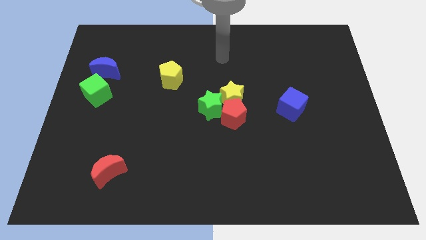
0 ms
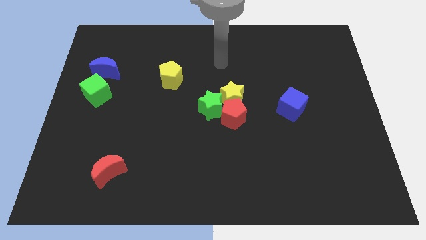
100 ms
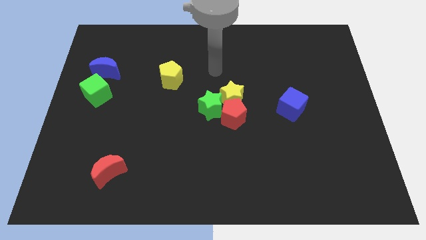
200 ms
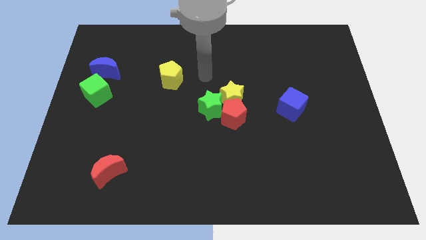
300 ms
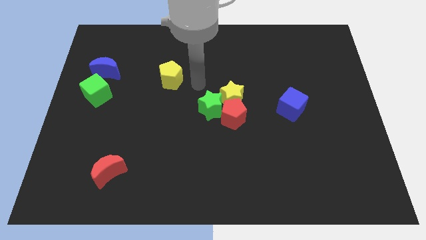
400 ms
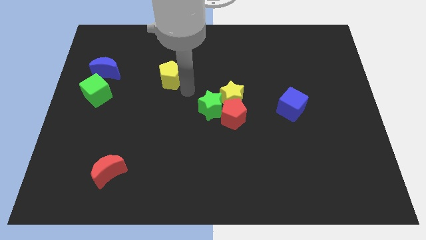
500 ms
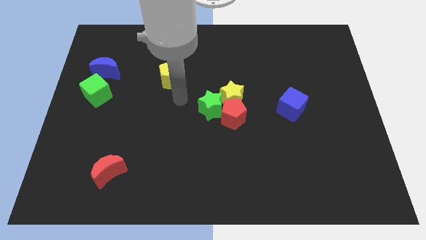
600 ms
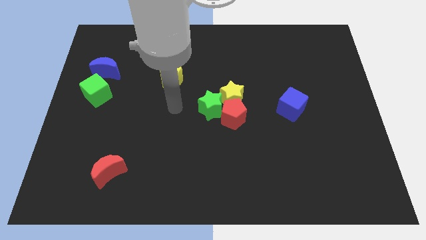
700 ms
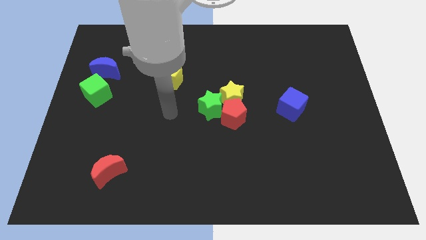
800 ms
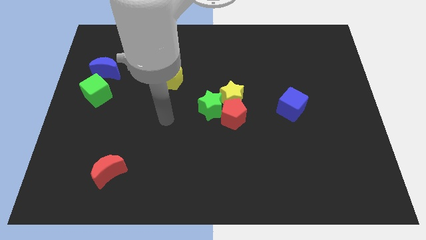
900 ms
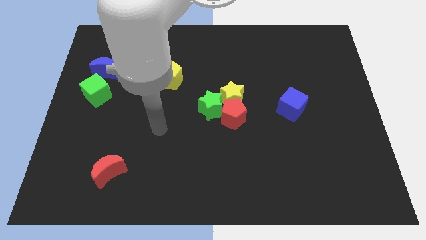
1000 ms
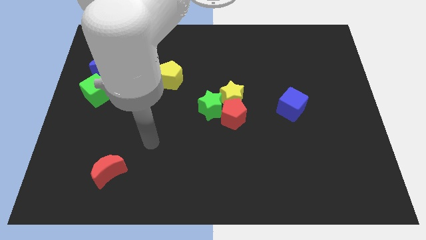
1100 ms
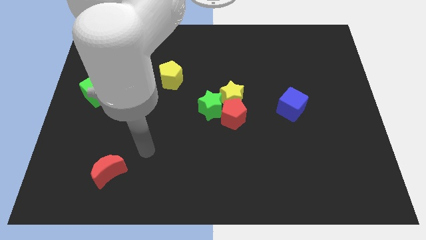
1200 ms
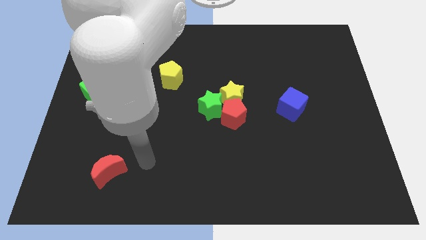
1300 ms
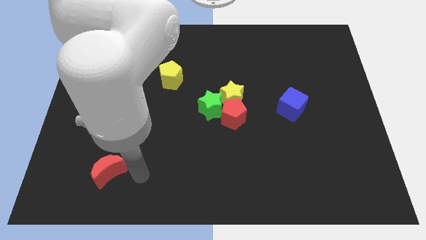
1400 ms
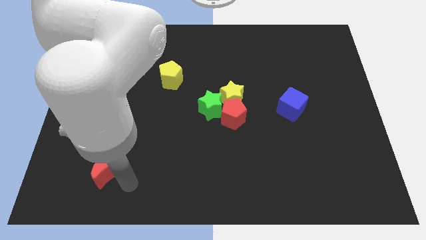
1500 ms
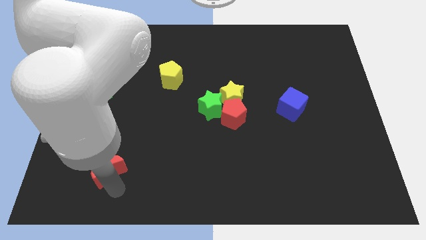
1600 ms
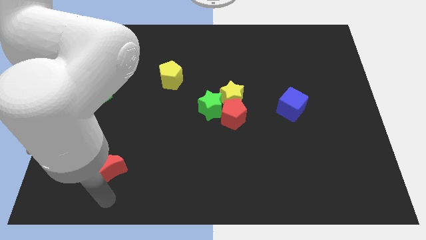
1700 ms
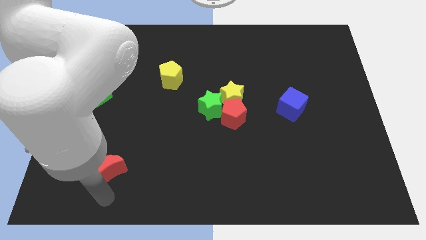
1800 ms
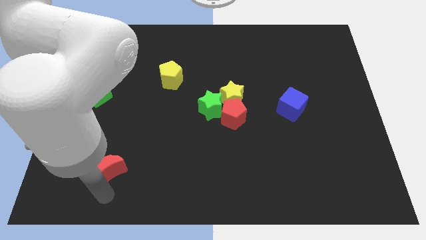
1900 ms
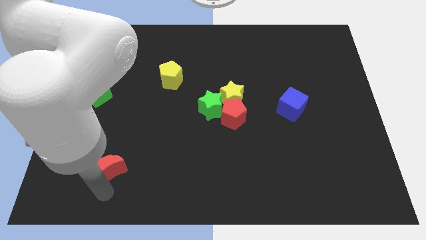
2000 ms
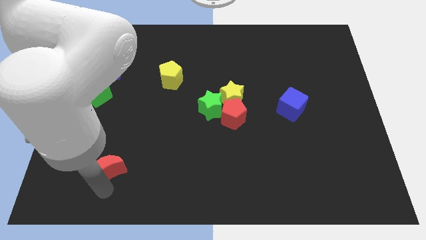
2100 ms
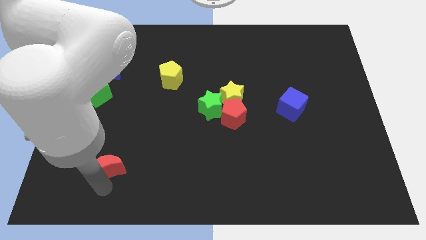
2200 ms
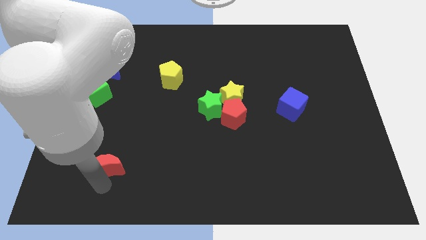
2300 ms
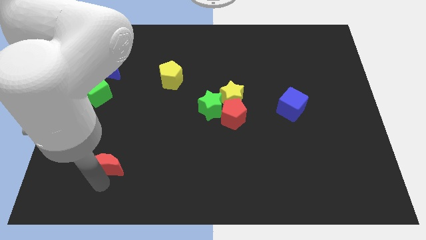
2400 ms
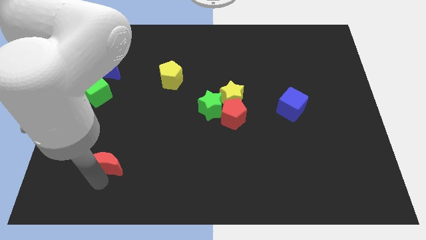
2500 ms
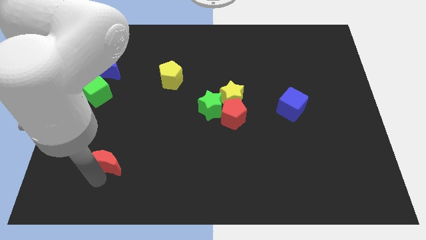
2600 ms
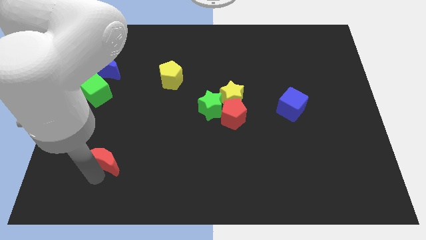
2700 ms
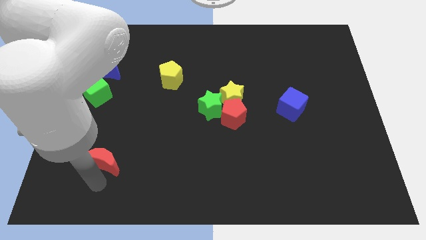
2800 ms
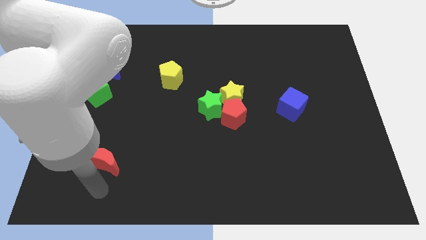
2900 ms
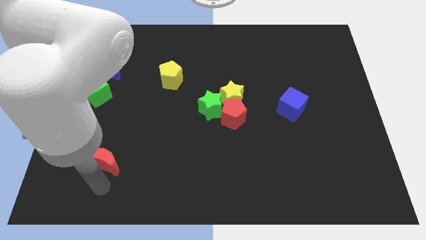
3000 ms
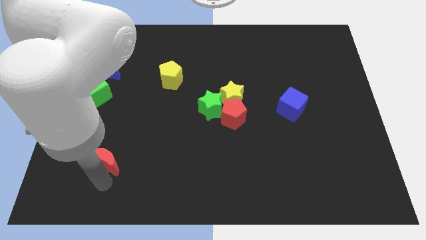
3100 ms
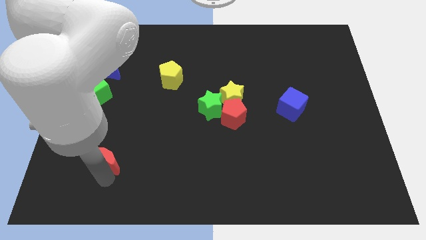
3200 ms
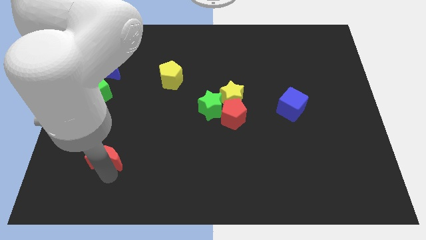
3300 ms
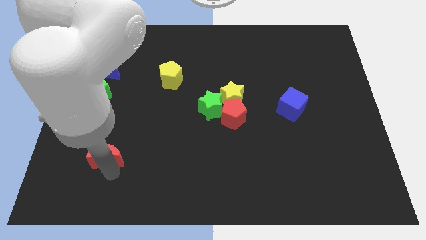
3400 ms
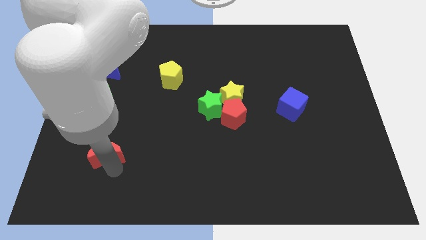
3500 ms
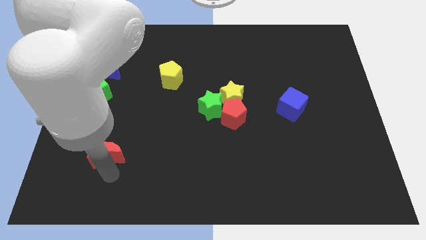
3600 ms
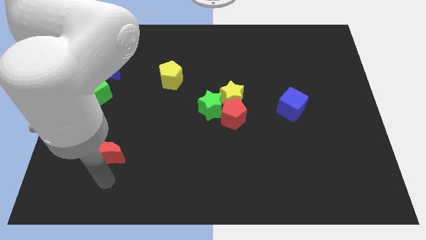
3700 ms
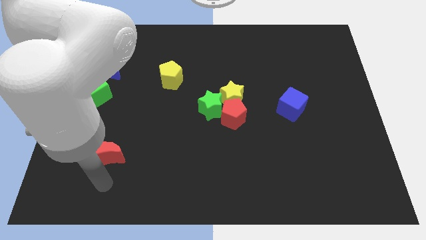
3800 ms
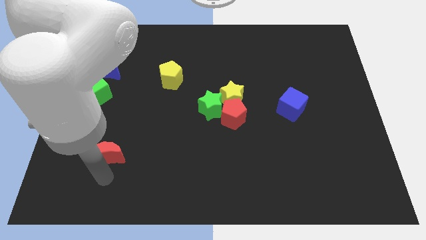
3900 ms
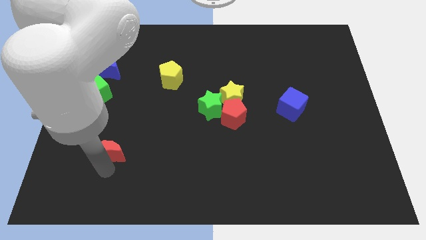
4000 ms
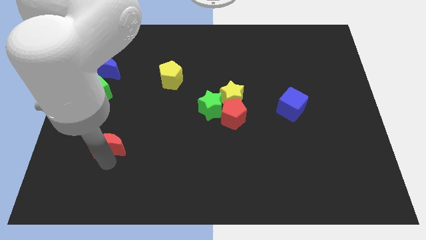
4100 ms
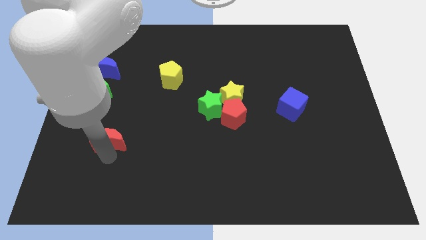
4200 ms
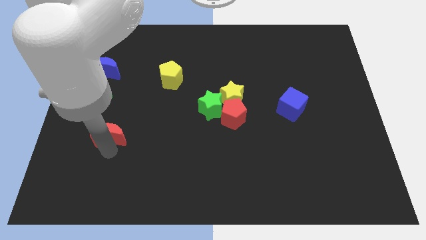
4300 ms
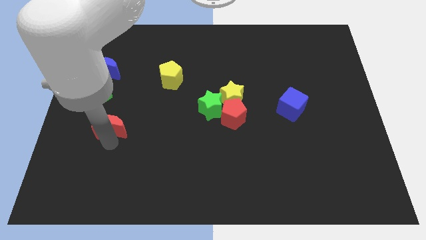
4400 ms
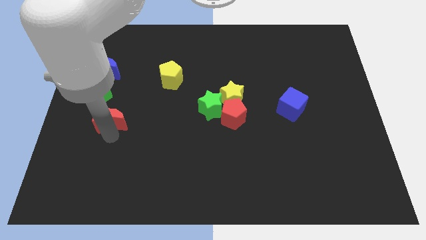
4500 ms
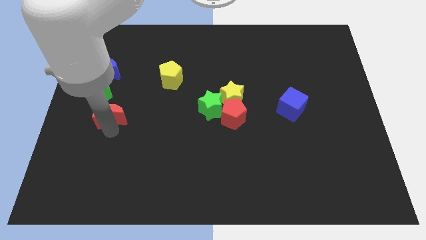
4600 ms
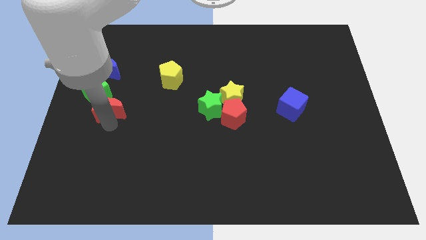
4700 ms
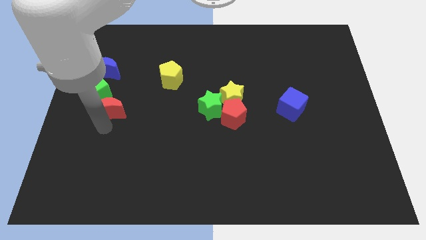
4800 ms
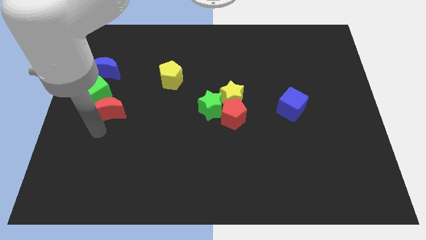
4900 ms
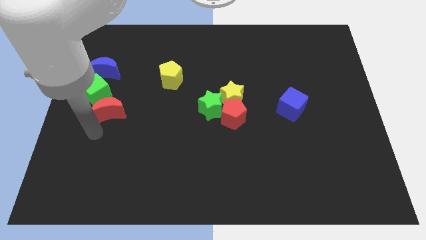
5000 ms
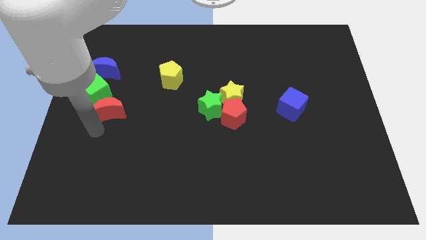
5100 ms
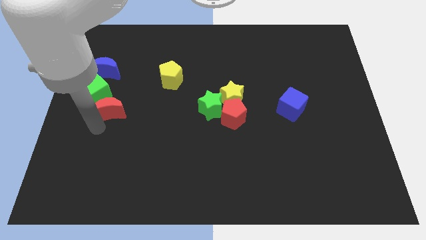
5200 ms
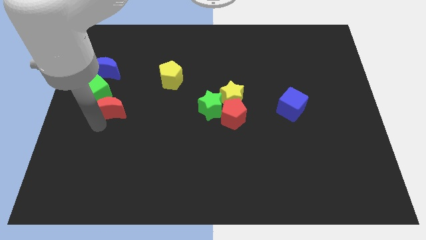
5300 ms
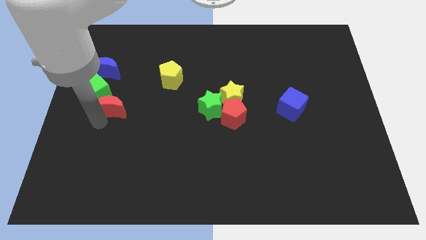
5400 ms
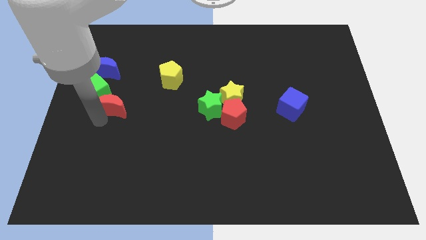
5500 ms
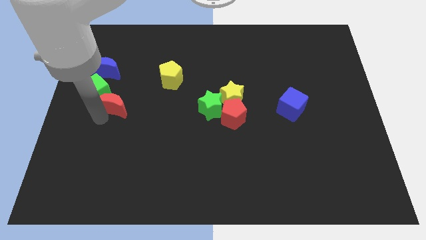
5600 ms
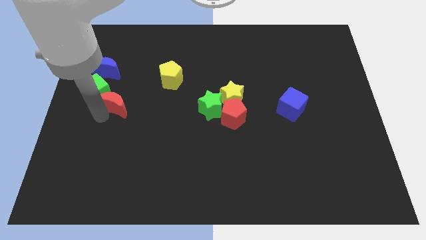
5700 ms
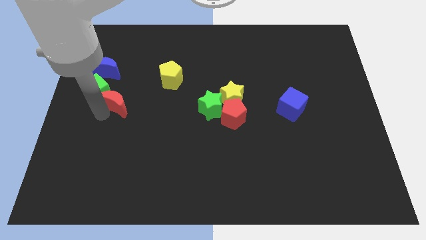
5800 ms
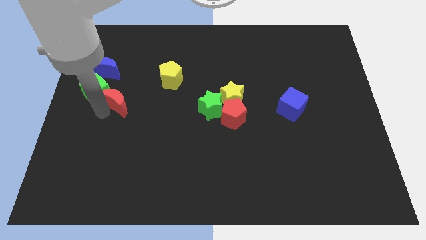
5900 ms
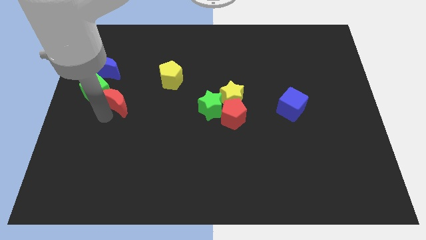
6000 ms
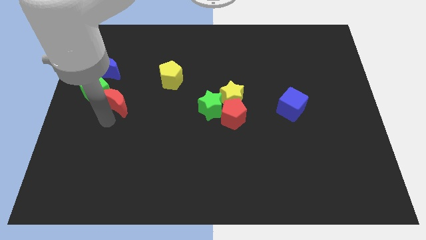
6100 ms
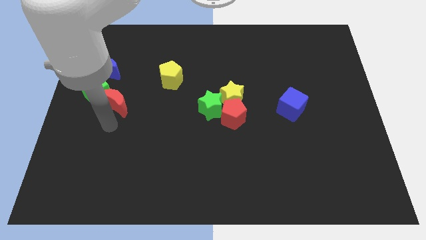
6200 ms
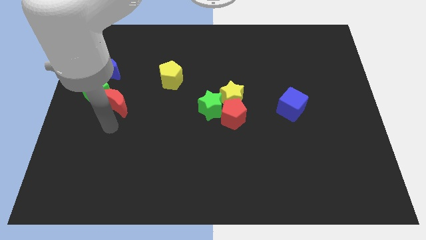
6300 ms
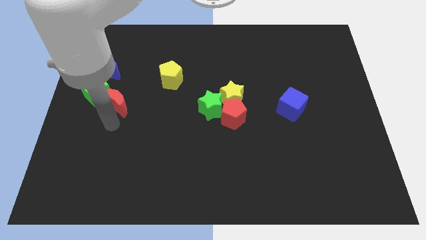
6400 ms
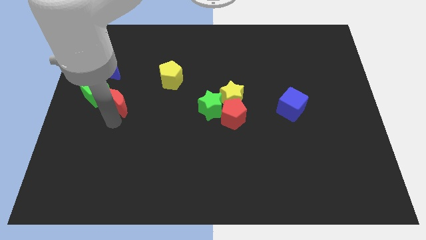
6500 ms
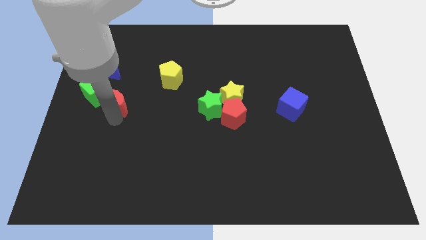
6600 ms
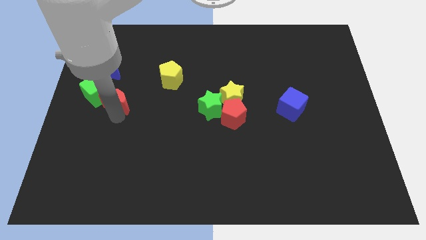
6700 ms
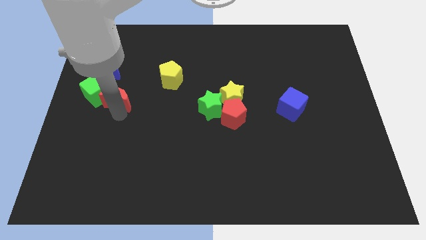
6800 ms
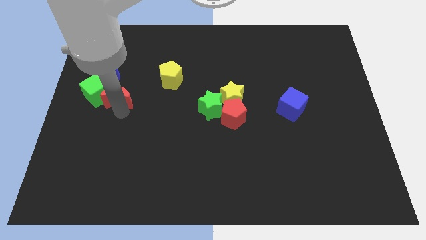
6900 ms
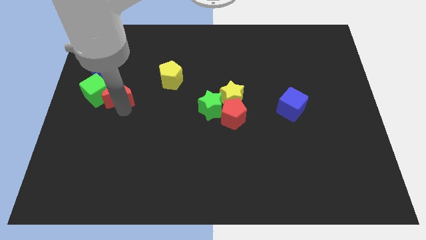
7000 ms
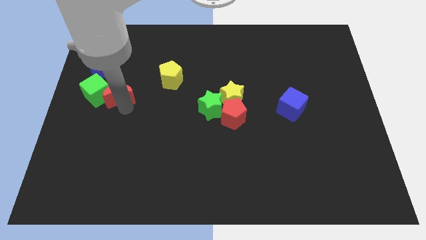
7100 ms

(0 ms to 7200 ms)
push the red moon up

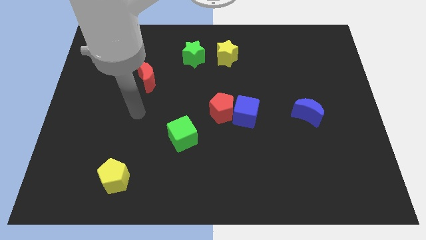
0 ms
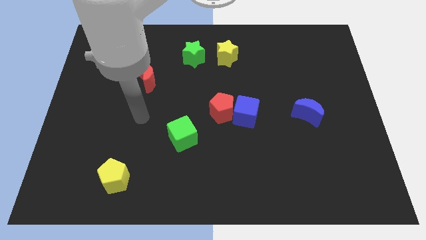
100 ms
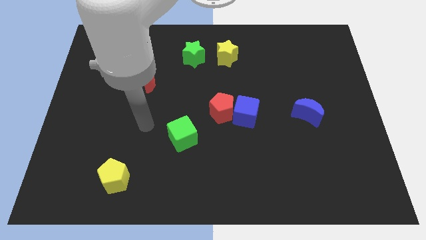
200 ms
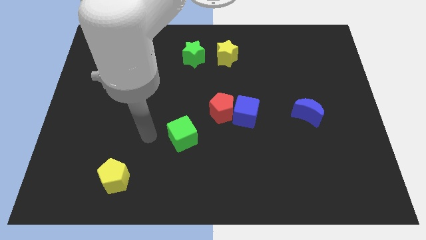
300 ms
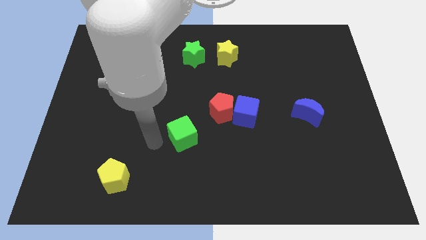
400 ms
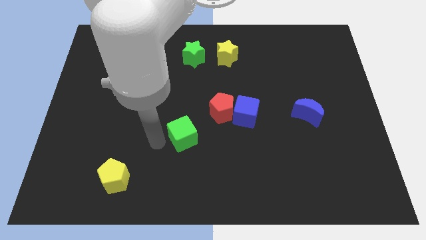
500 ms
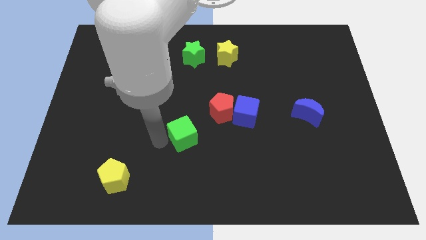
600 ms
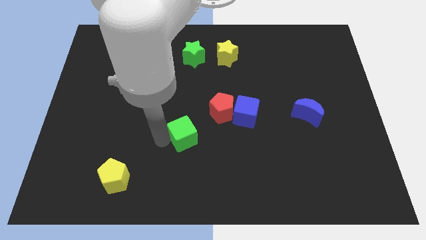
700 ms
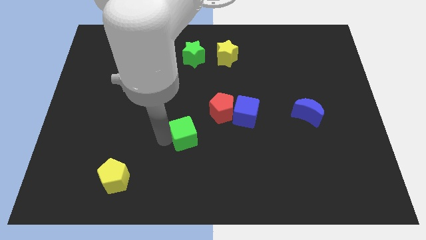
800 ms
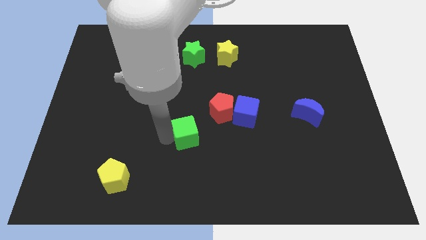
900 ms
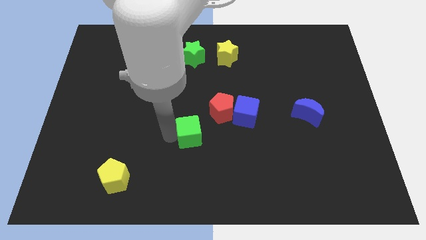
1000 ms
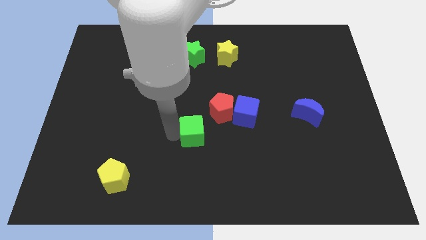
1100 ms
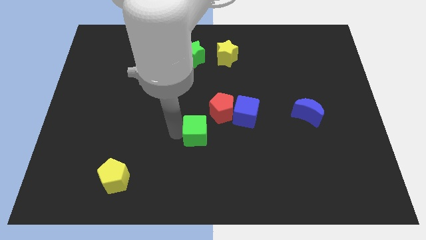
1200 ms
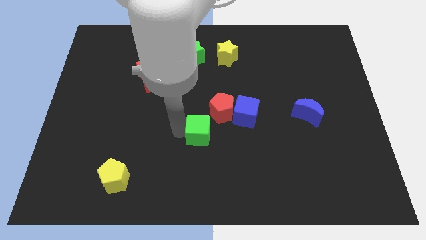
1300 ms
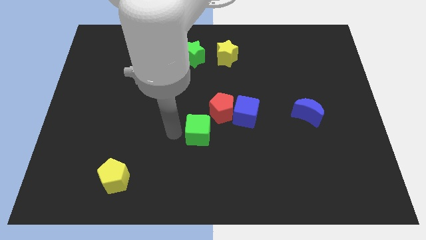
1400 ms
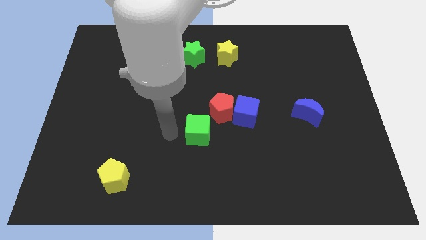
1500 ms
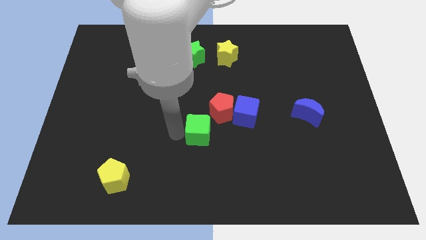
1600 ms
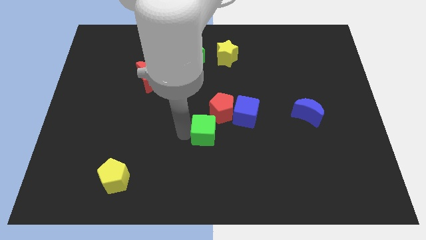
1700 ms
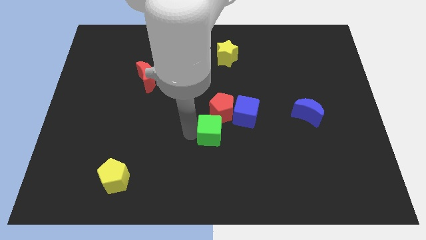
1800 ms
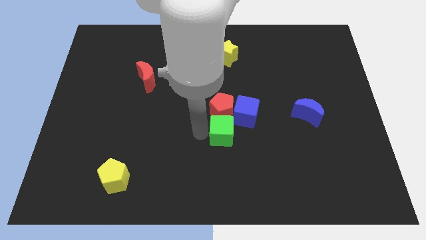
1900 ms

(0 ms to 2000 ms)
slide the green cube a little bit to the right
